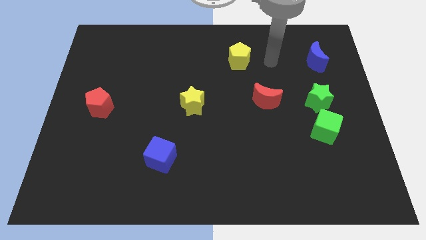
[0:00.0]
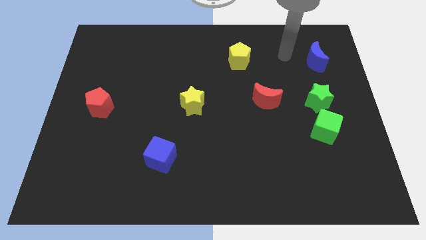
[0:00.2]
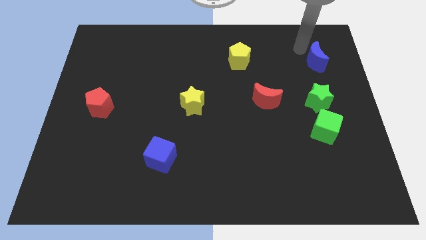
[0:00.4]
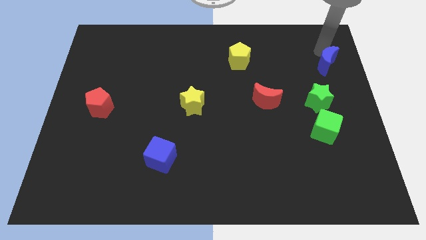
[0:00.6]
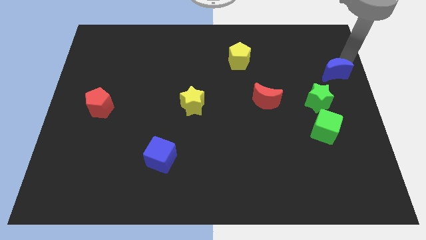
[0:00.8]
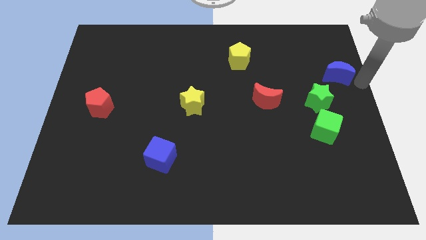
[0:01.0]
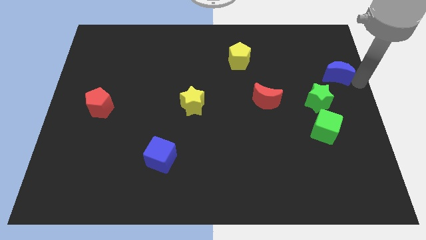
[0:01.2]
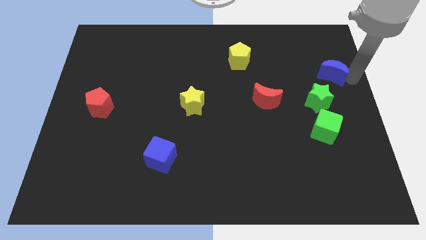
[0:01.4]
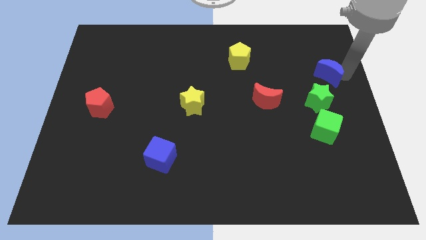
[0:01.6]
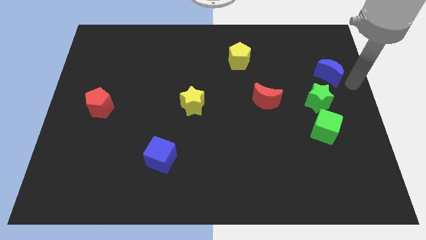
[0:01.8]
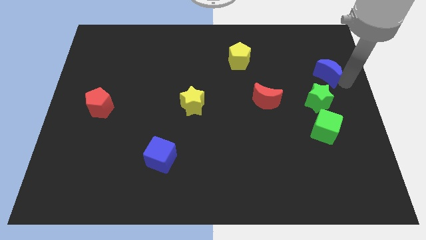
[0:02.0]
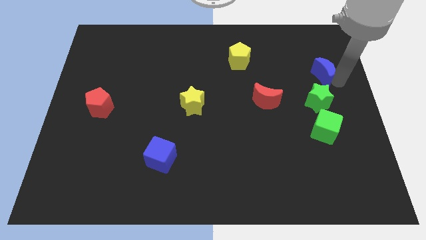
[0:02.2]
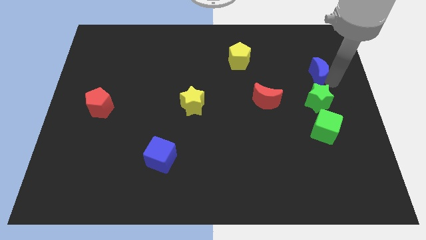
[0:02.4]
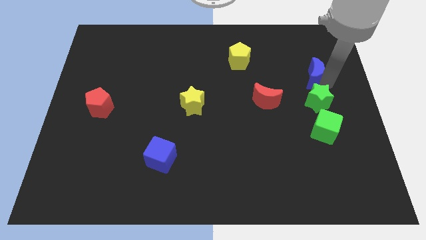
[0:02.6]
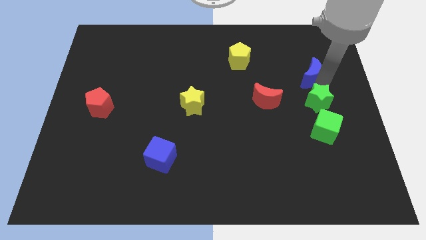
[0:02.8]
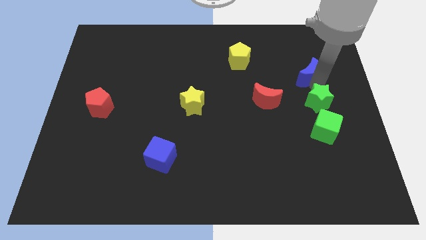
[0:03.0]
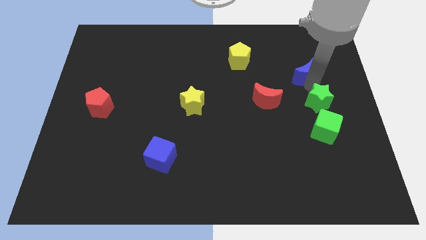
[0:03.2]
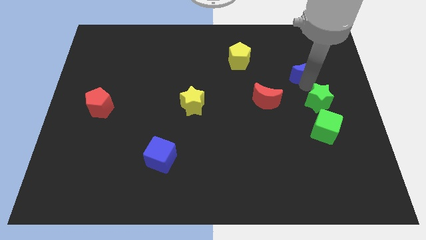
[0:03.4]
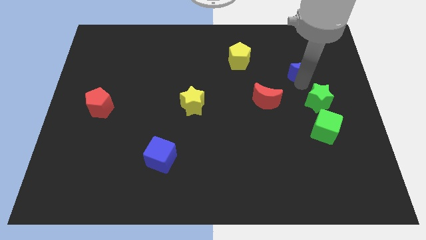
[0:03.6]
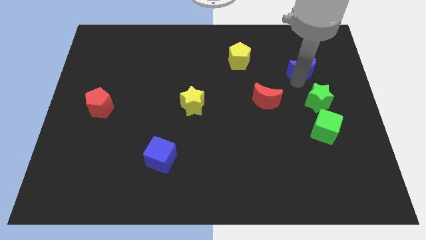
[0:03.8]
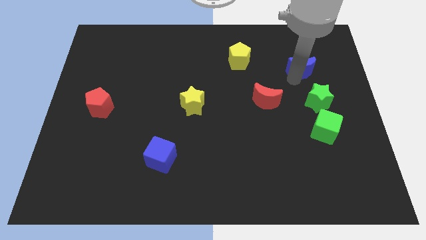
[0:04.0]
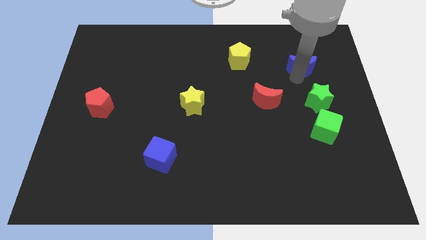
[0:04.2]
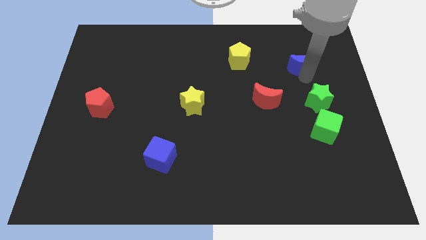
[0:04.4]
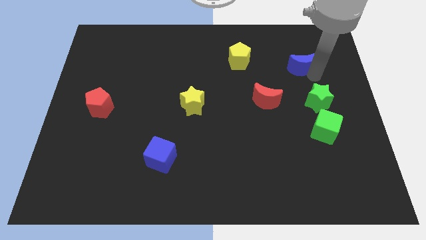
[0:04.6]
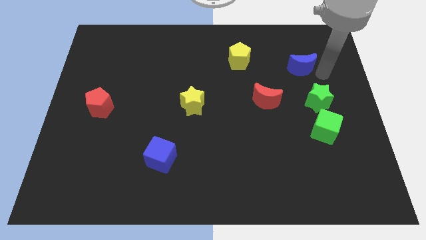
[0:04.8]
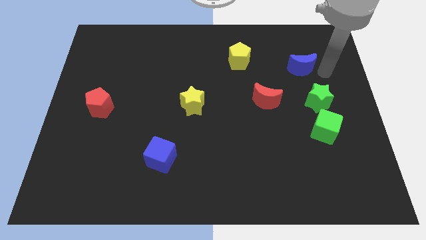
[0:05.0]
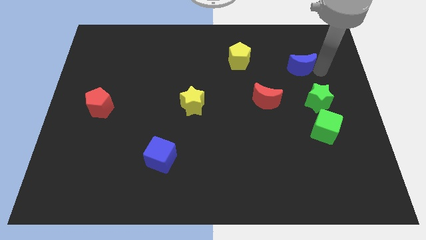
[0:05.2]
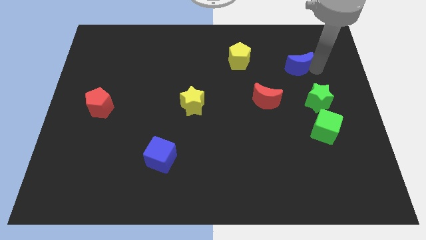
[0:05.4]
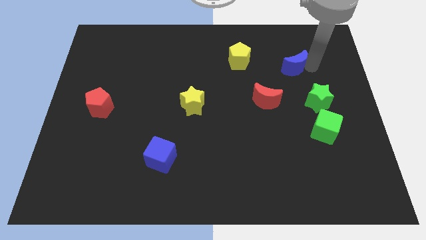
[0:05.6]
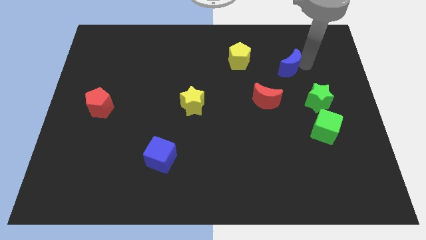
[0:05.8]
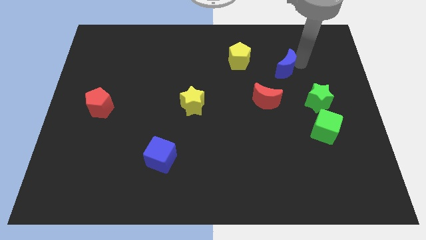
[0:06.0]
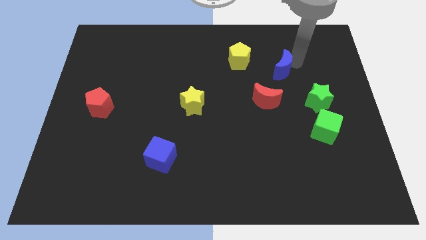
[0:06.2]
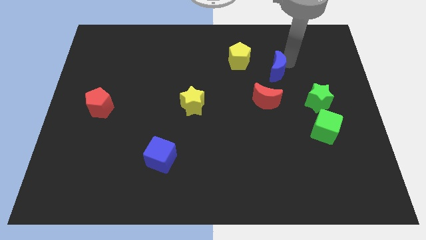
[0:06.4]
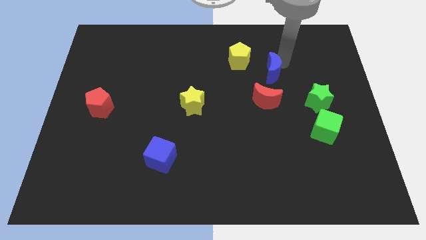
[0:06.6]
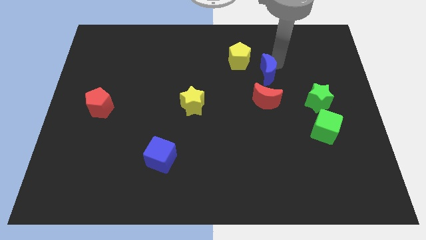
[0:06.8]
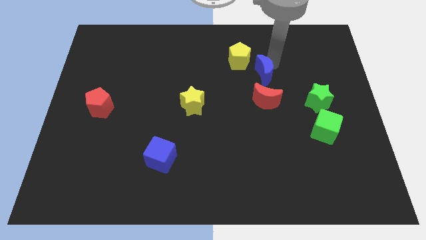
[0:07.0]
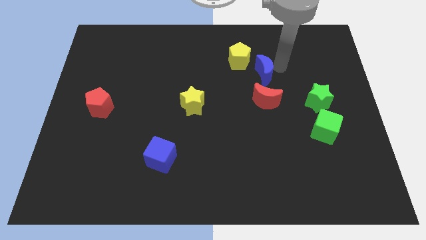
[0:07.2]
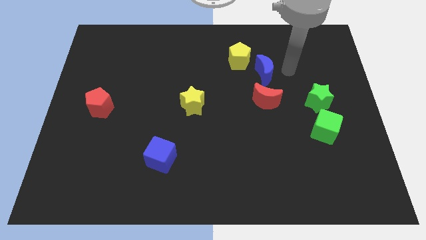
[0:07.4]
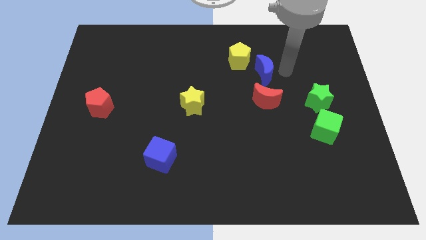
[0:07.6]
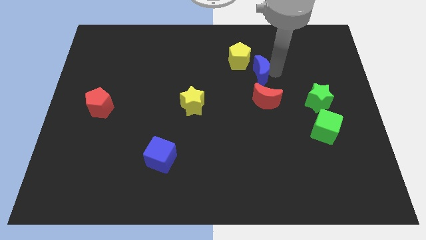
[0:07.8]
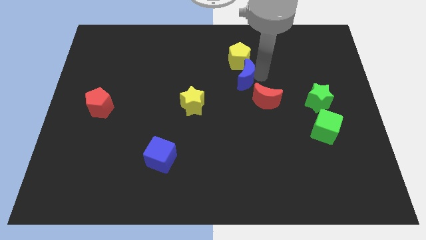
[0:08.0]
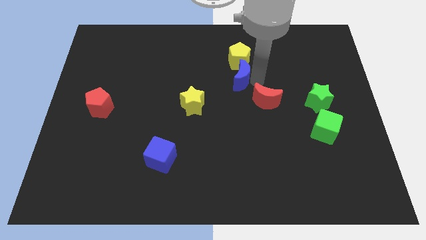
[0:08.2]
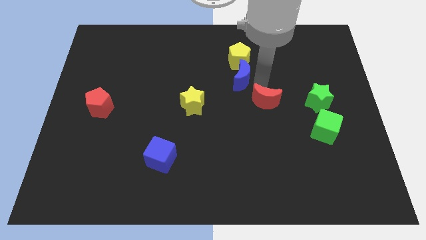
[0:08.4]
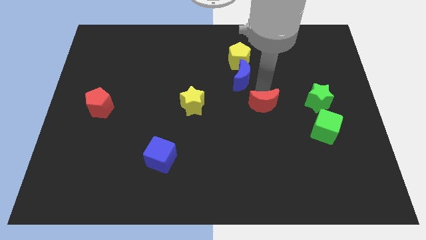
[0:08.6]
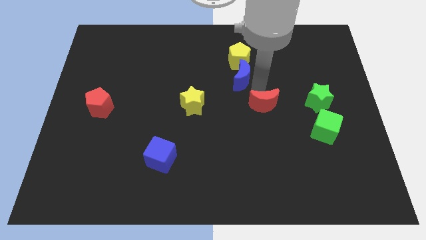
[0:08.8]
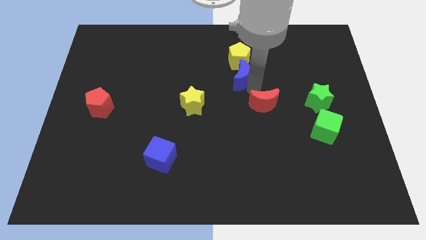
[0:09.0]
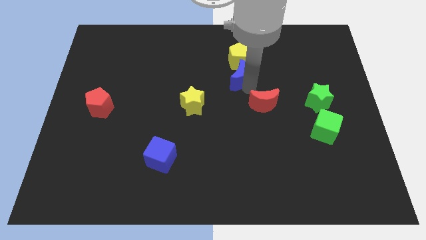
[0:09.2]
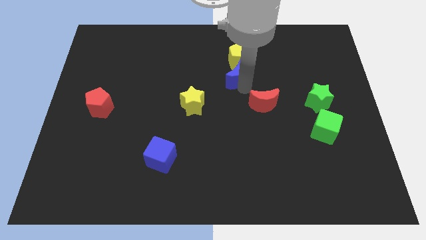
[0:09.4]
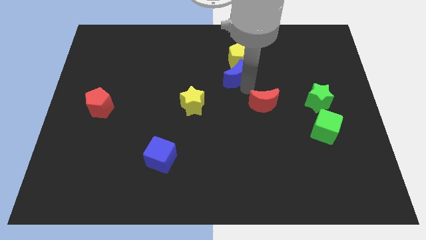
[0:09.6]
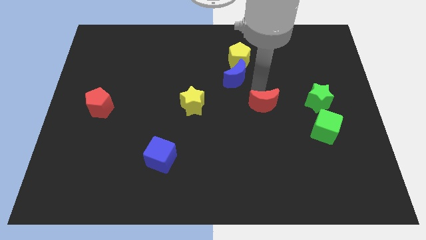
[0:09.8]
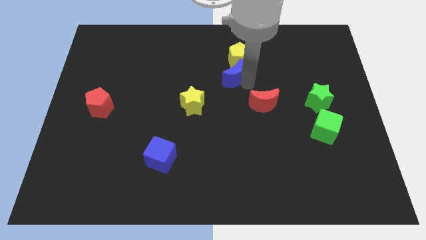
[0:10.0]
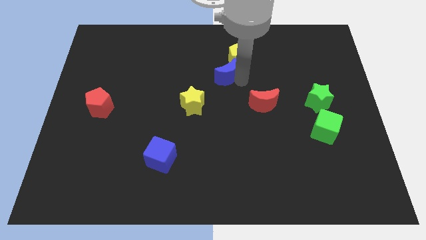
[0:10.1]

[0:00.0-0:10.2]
slide the blue moon to the left

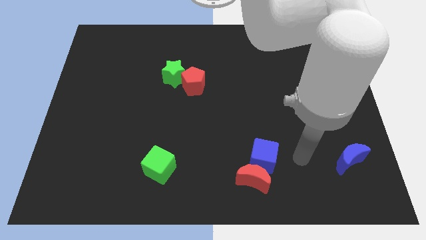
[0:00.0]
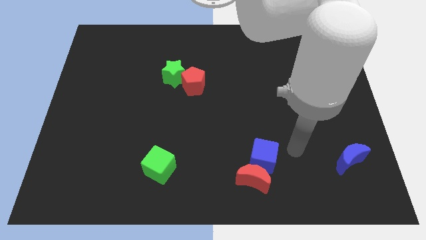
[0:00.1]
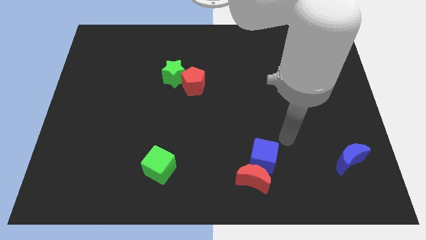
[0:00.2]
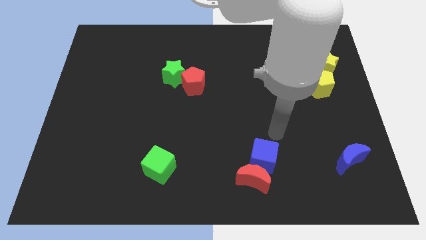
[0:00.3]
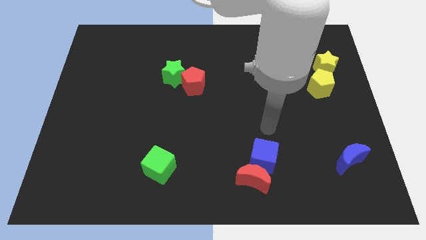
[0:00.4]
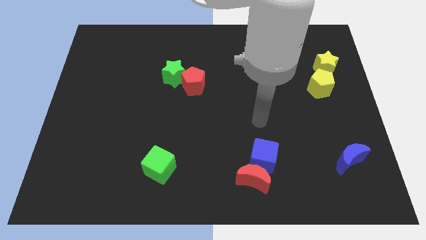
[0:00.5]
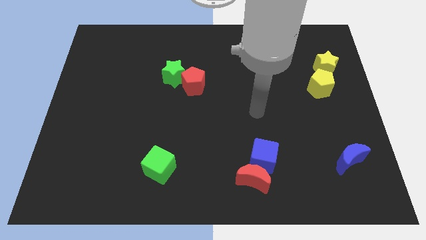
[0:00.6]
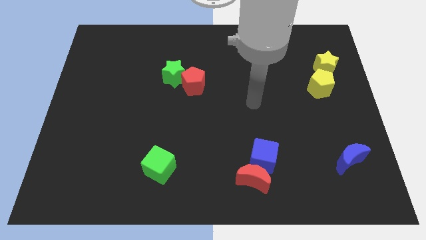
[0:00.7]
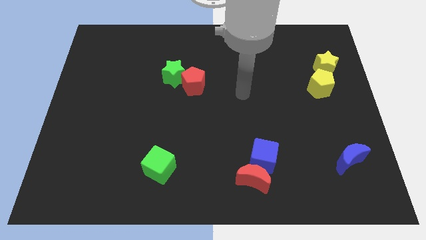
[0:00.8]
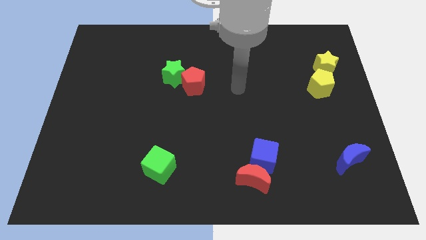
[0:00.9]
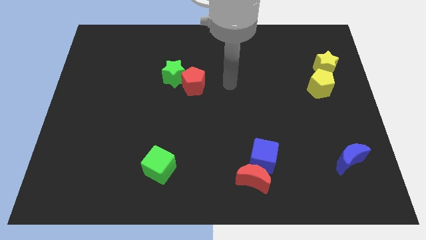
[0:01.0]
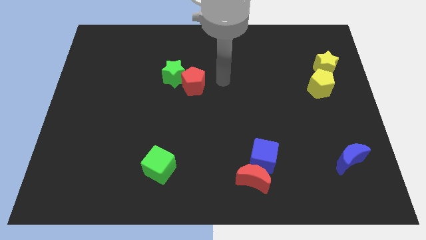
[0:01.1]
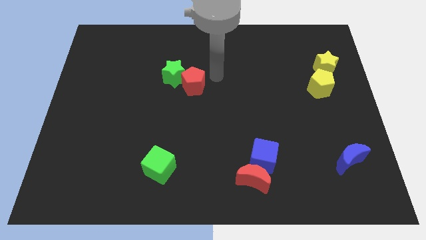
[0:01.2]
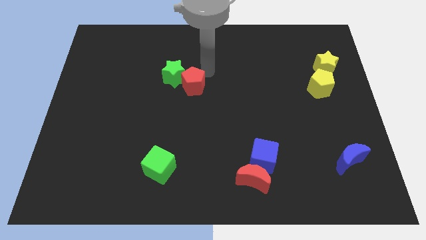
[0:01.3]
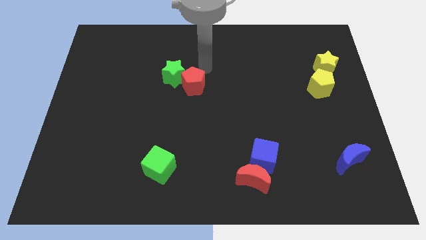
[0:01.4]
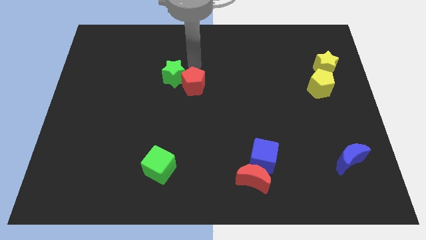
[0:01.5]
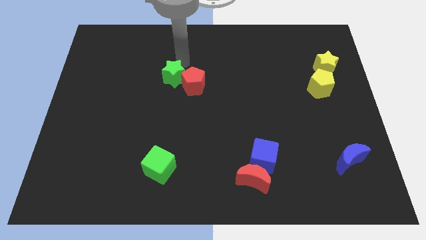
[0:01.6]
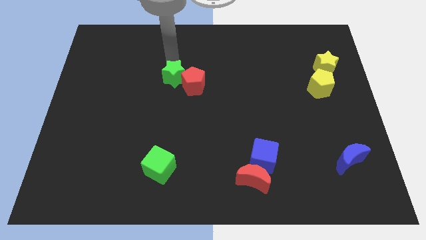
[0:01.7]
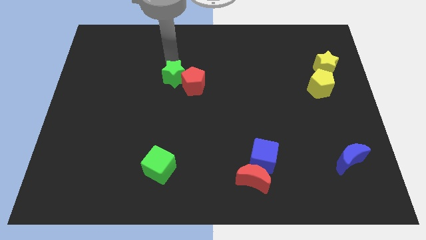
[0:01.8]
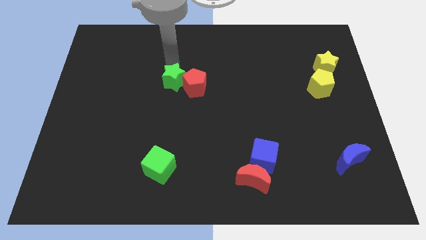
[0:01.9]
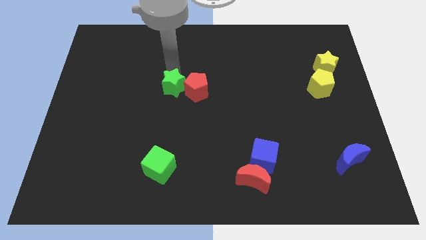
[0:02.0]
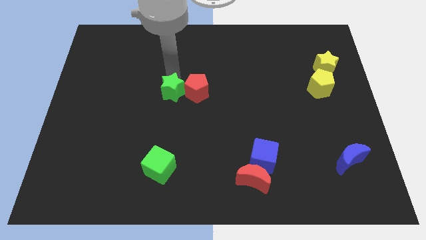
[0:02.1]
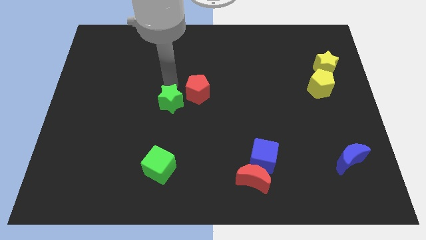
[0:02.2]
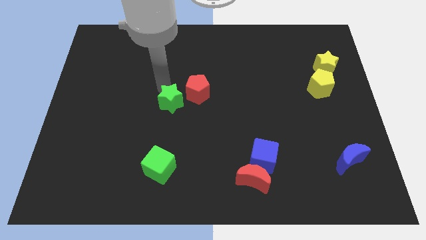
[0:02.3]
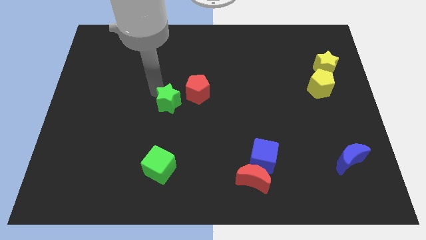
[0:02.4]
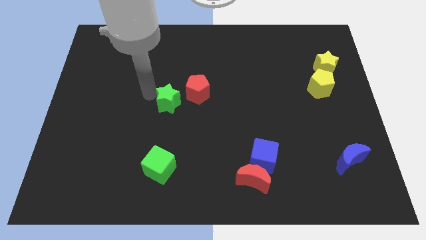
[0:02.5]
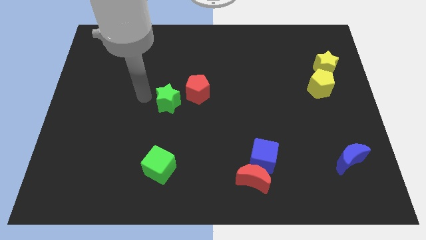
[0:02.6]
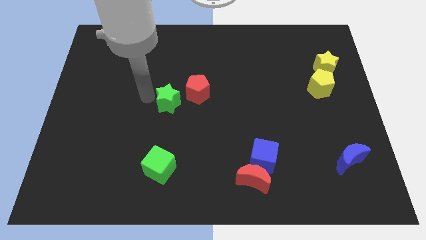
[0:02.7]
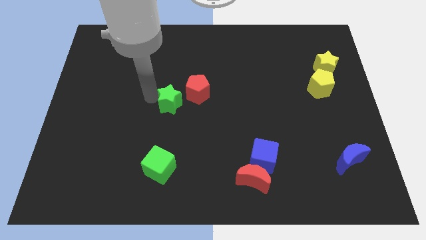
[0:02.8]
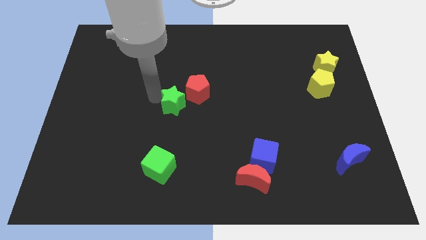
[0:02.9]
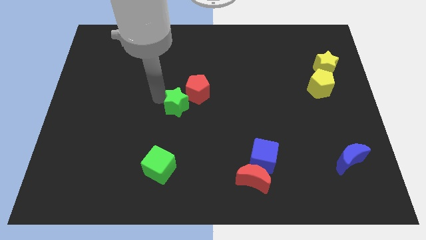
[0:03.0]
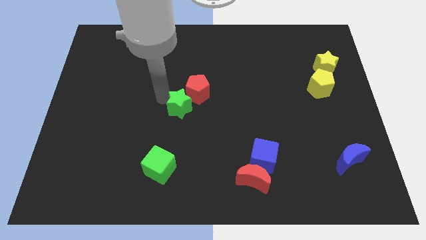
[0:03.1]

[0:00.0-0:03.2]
slightly push the green star diagonally down and to the right
